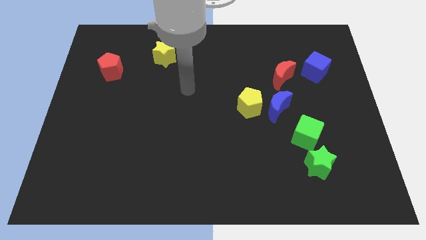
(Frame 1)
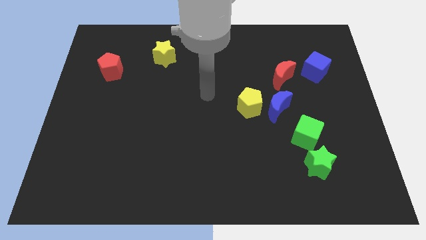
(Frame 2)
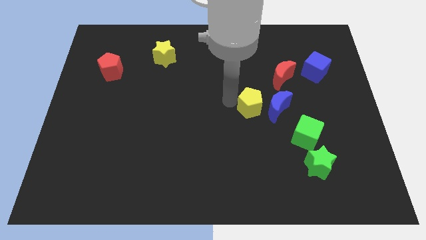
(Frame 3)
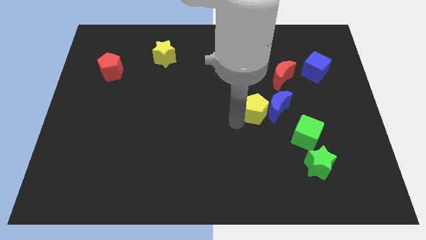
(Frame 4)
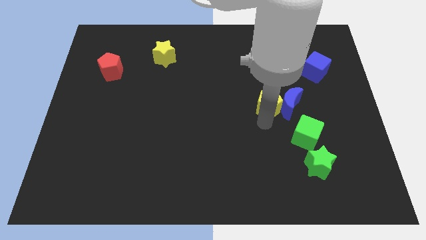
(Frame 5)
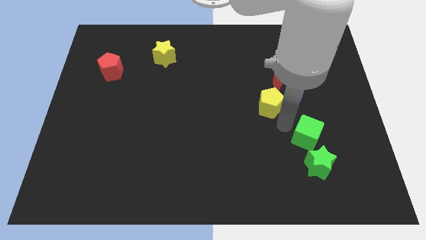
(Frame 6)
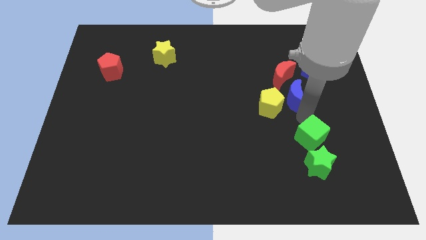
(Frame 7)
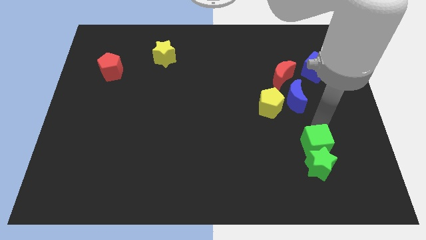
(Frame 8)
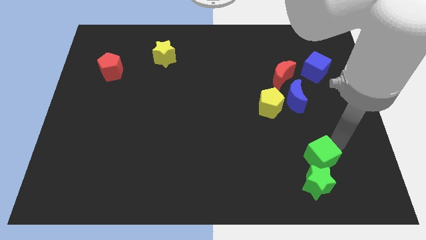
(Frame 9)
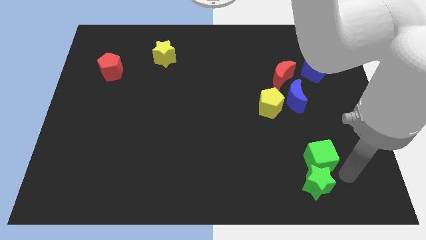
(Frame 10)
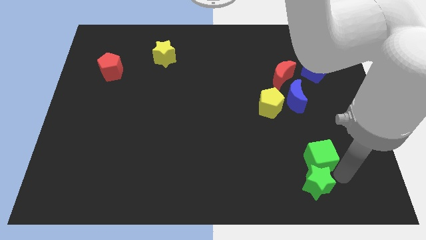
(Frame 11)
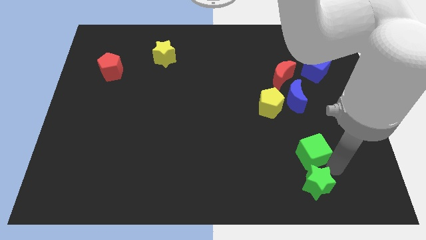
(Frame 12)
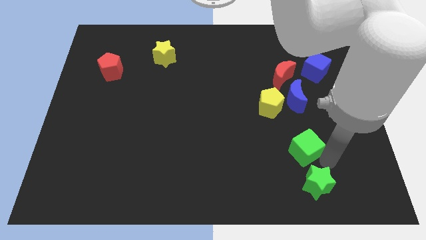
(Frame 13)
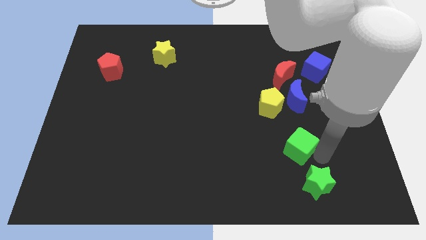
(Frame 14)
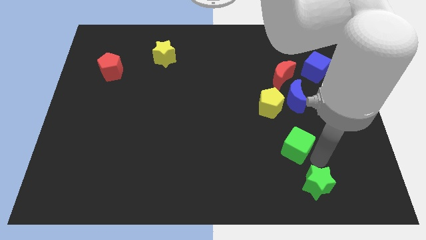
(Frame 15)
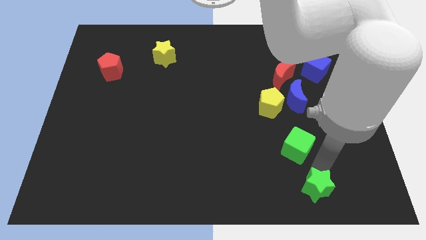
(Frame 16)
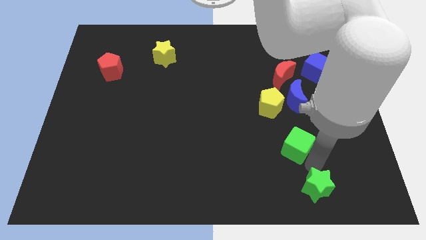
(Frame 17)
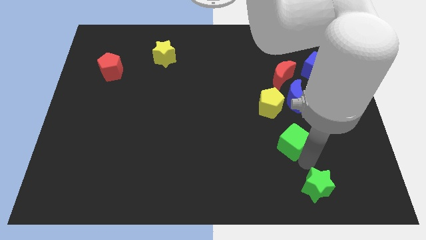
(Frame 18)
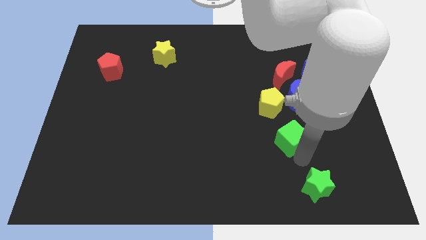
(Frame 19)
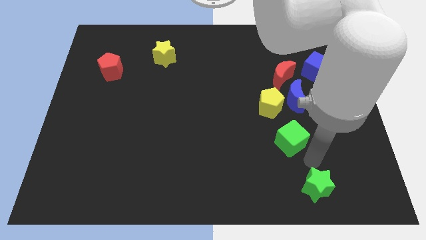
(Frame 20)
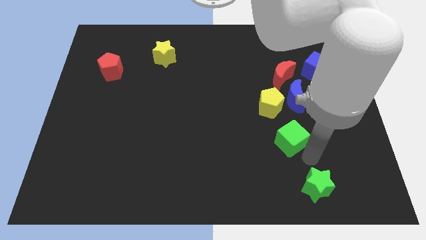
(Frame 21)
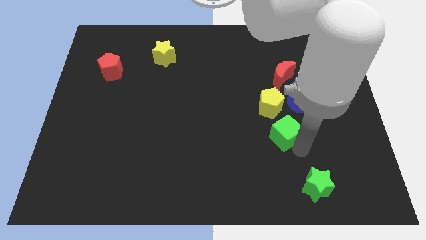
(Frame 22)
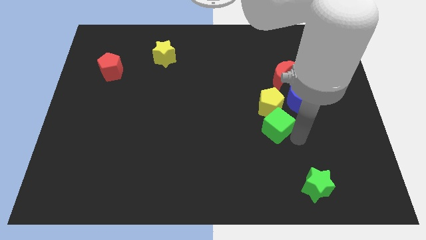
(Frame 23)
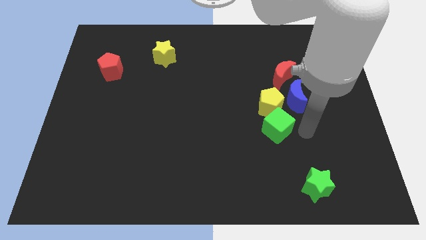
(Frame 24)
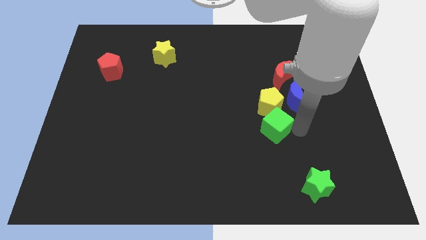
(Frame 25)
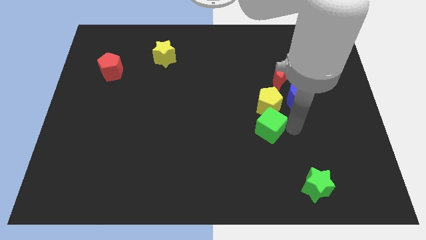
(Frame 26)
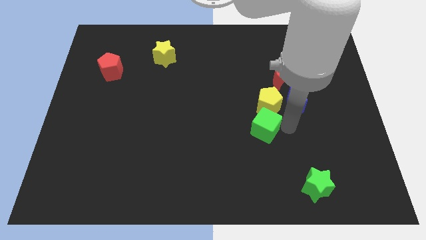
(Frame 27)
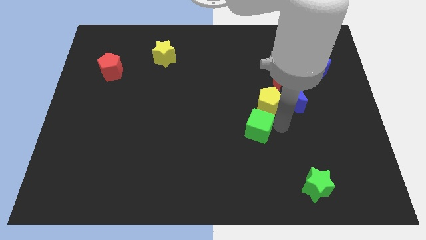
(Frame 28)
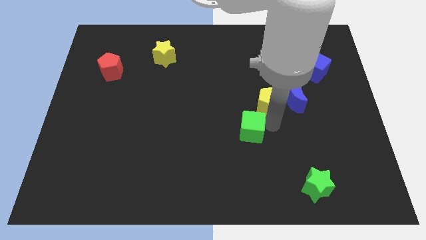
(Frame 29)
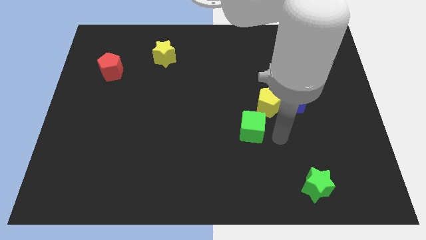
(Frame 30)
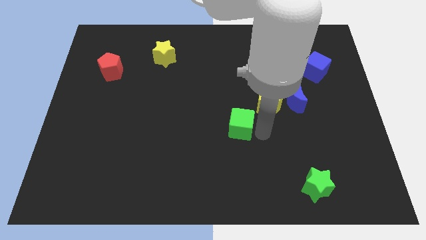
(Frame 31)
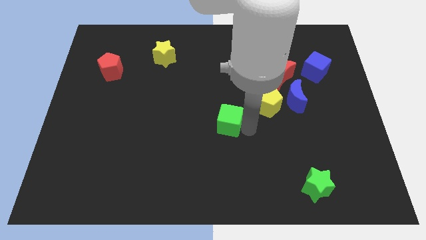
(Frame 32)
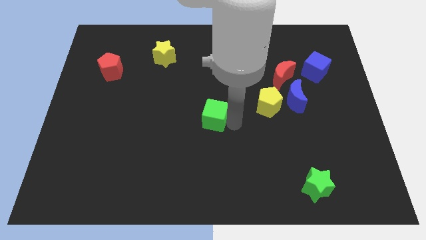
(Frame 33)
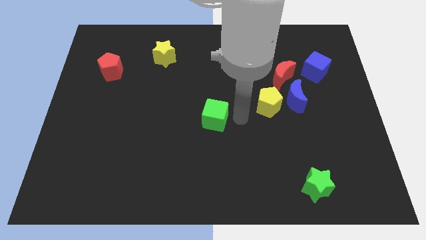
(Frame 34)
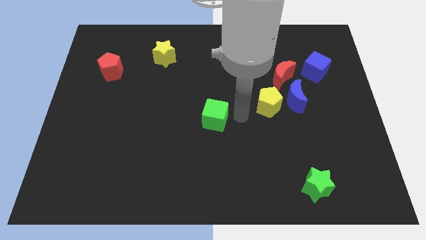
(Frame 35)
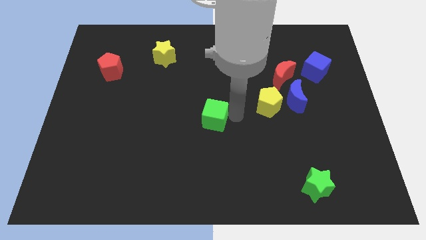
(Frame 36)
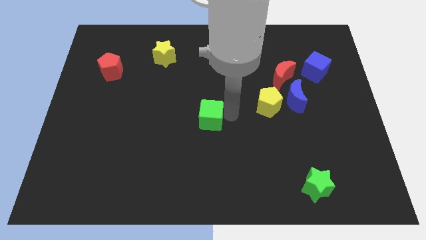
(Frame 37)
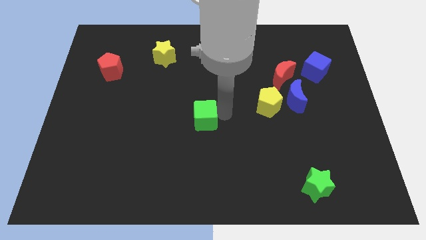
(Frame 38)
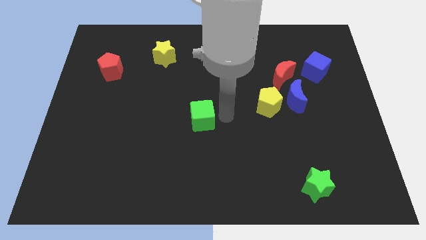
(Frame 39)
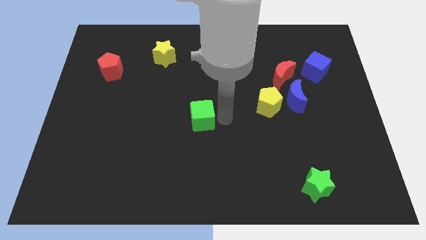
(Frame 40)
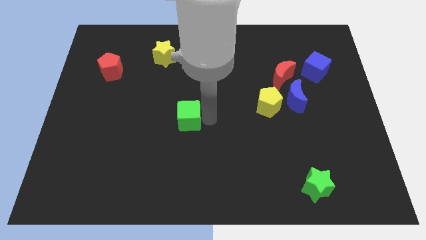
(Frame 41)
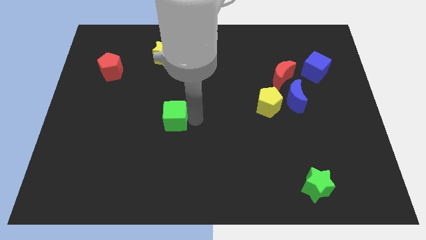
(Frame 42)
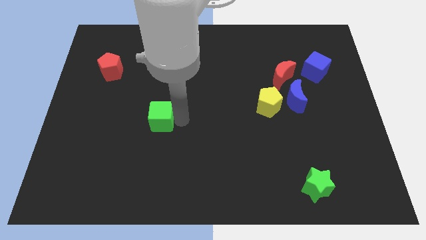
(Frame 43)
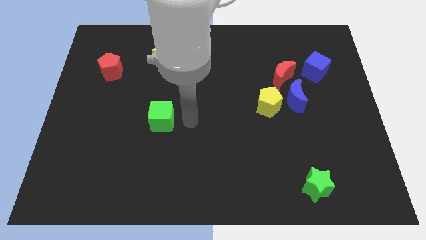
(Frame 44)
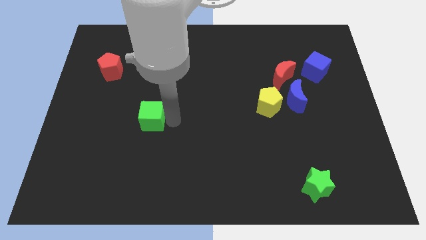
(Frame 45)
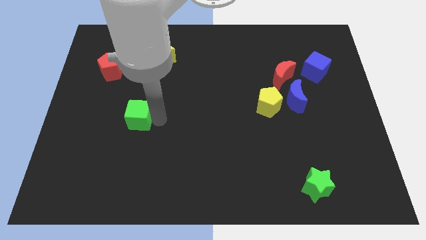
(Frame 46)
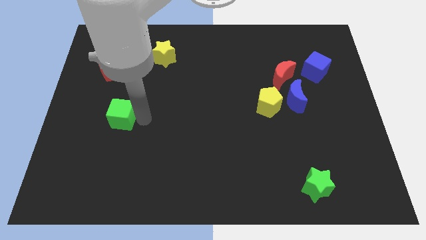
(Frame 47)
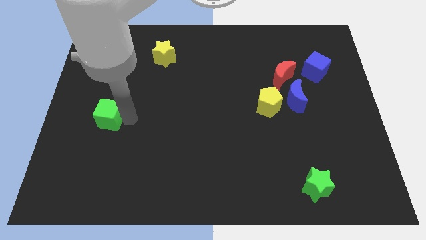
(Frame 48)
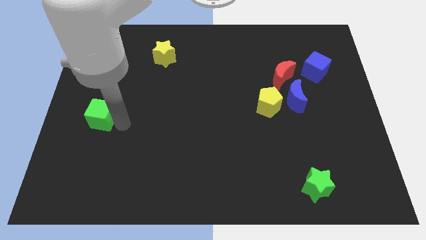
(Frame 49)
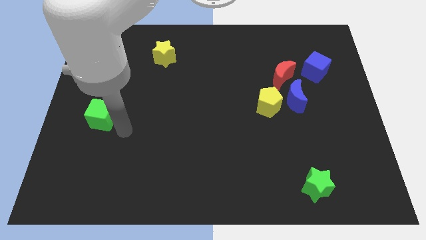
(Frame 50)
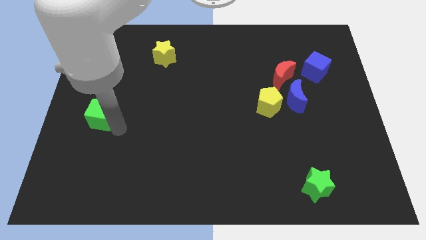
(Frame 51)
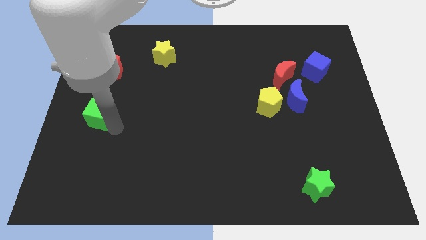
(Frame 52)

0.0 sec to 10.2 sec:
slide the green cube to the center left

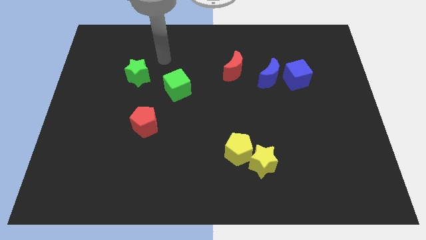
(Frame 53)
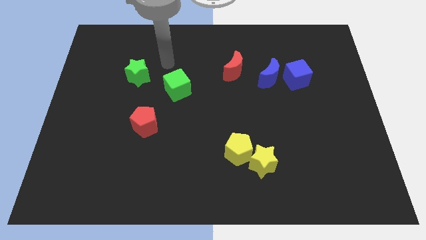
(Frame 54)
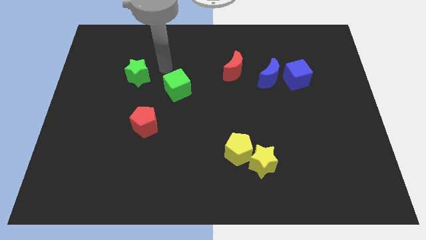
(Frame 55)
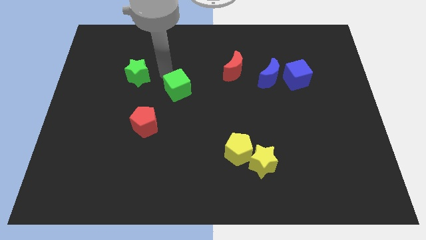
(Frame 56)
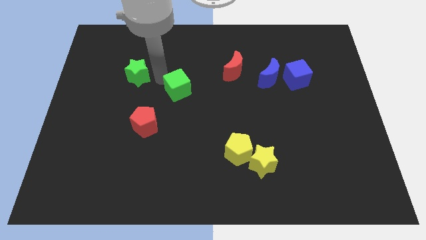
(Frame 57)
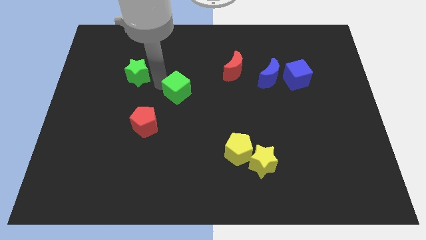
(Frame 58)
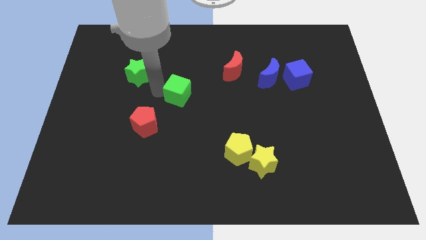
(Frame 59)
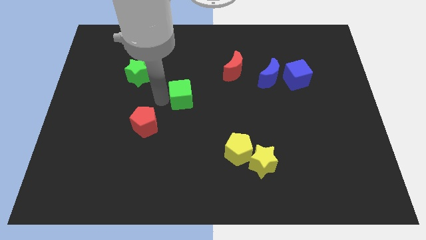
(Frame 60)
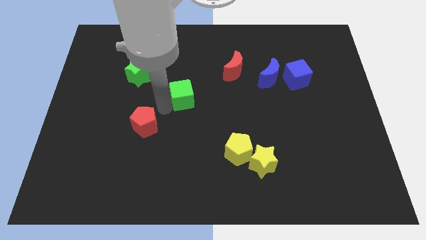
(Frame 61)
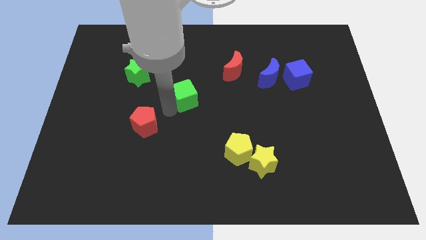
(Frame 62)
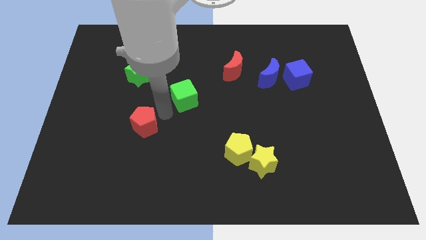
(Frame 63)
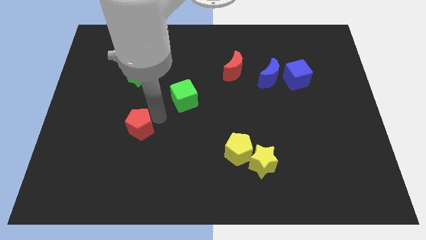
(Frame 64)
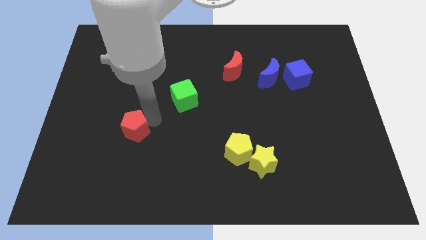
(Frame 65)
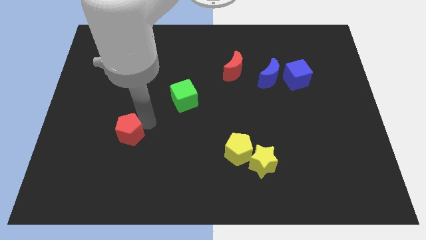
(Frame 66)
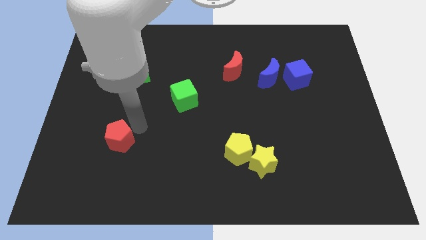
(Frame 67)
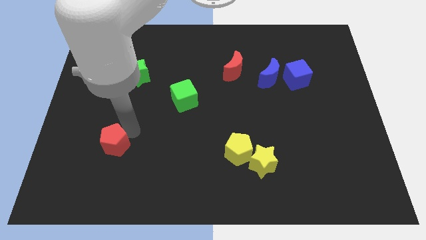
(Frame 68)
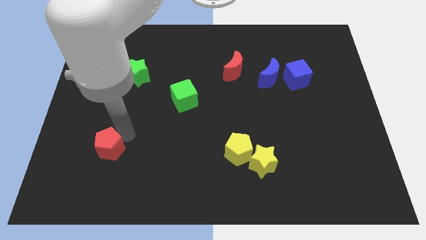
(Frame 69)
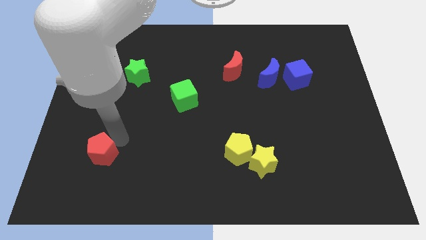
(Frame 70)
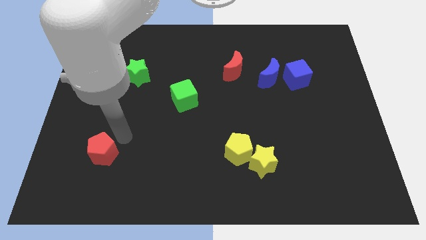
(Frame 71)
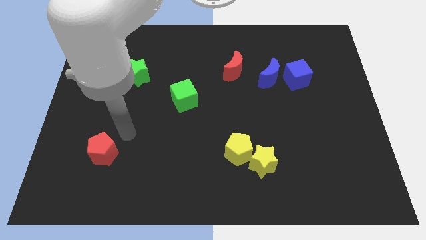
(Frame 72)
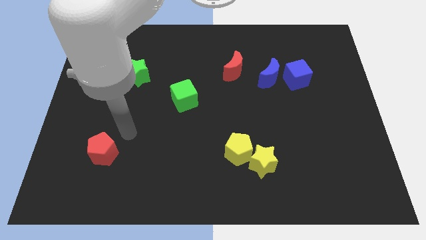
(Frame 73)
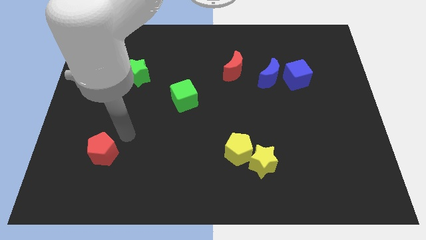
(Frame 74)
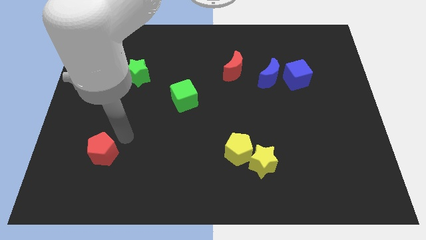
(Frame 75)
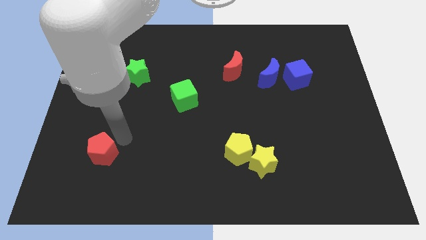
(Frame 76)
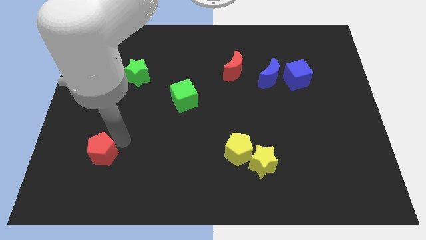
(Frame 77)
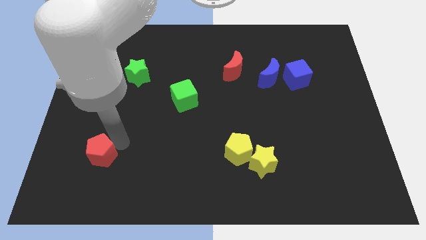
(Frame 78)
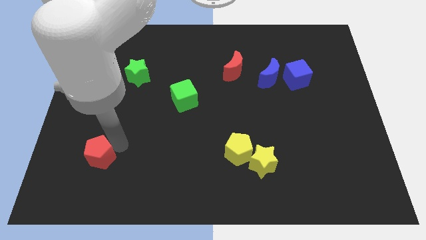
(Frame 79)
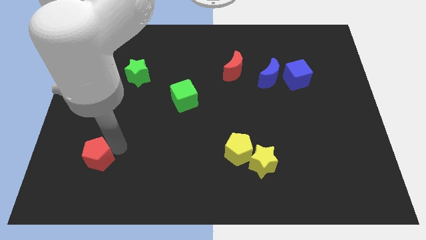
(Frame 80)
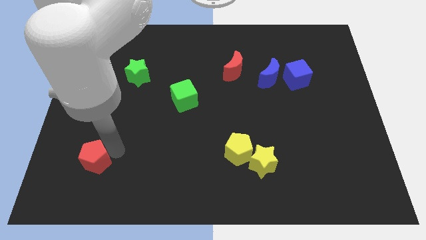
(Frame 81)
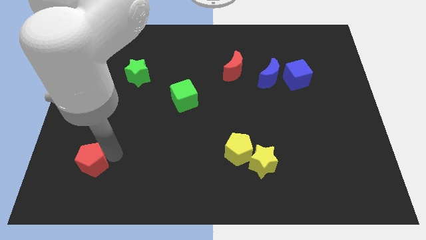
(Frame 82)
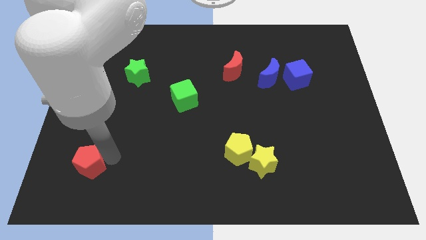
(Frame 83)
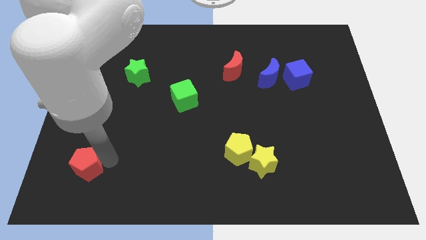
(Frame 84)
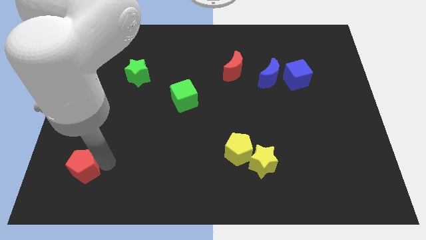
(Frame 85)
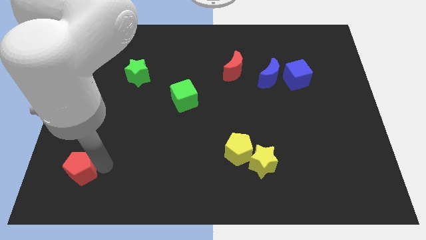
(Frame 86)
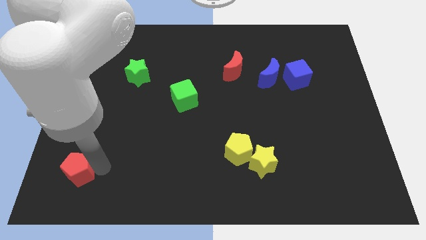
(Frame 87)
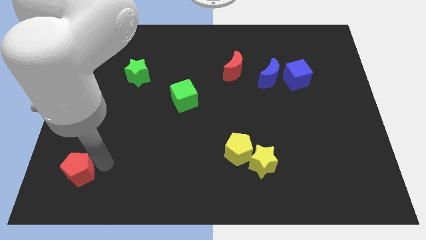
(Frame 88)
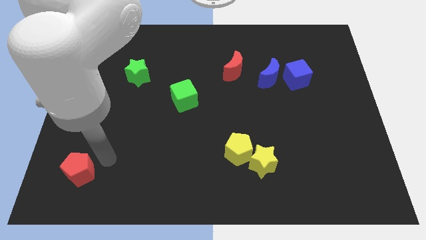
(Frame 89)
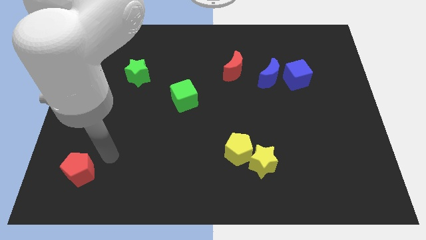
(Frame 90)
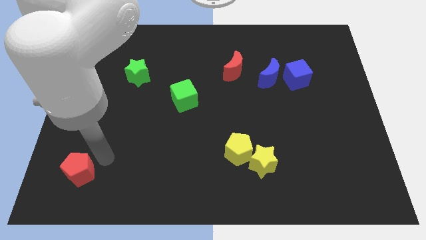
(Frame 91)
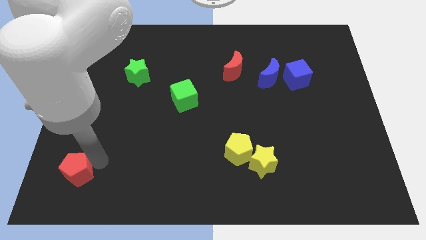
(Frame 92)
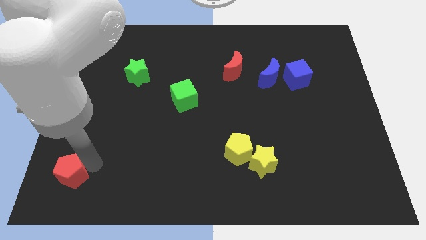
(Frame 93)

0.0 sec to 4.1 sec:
push the red pentagon to the lower left corner
